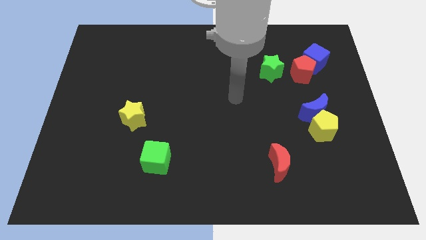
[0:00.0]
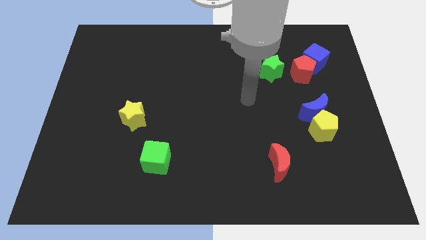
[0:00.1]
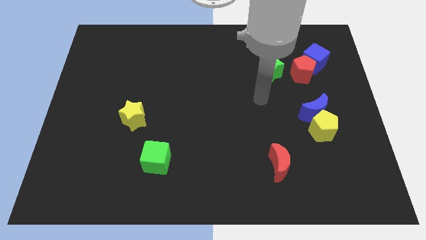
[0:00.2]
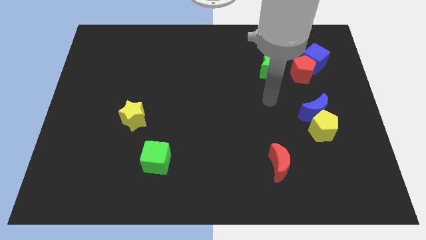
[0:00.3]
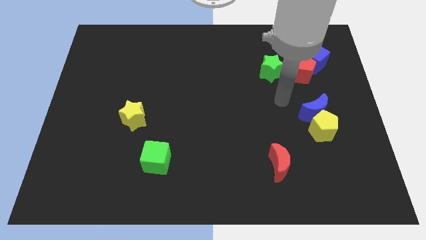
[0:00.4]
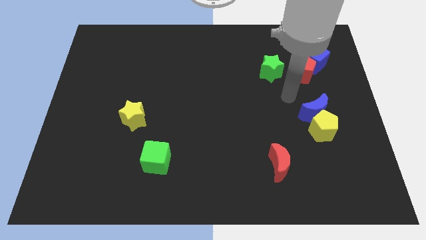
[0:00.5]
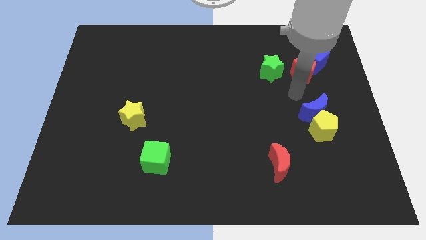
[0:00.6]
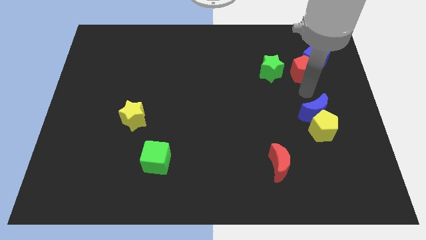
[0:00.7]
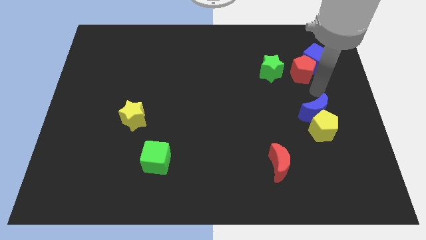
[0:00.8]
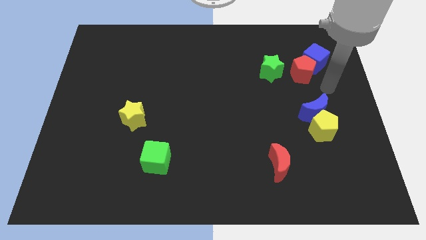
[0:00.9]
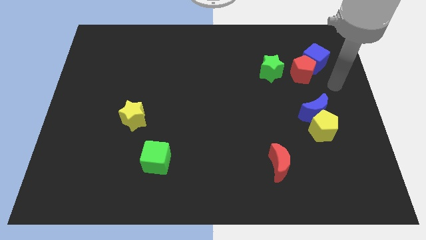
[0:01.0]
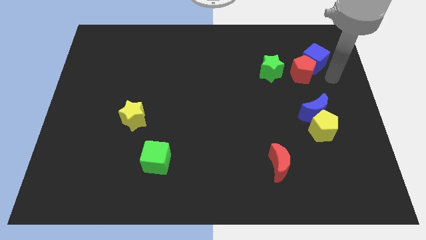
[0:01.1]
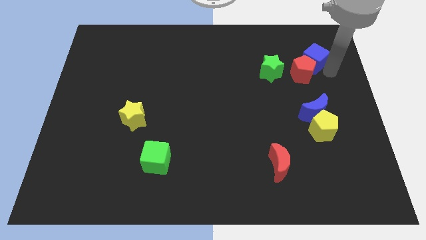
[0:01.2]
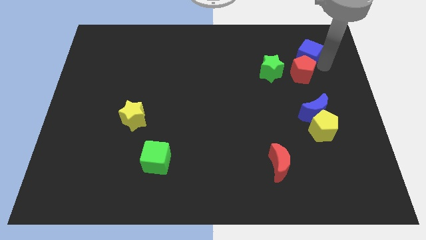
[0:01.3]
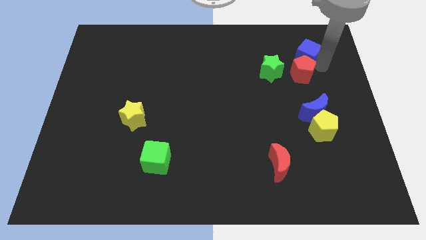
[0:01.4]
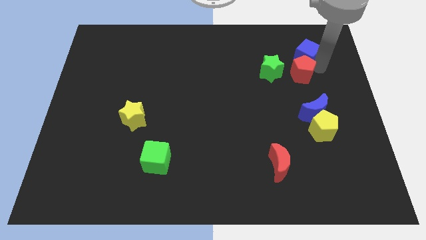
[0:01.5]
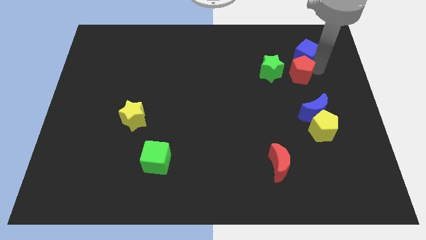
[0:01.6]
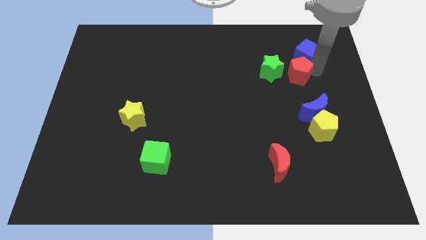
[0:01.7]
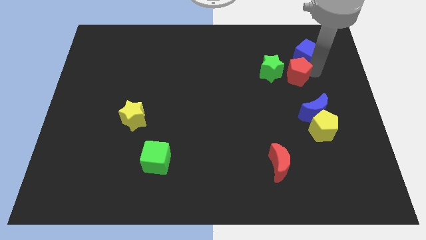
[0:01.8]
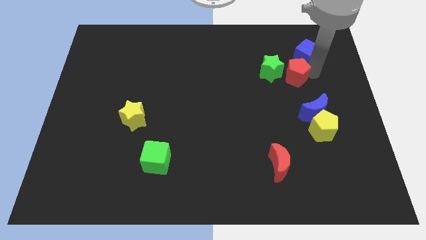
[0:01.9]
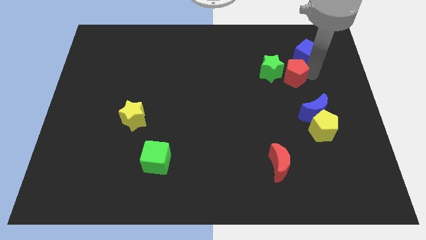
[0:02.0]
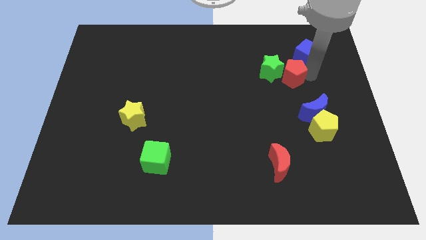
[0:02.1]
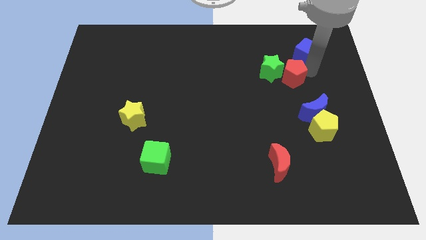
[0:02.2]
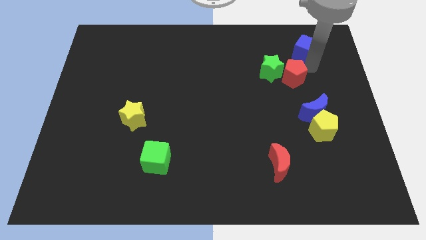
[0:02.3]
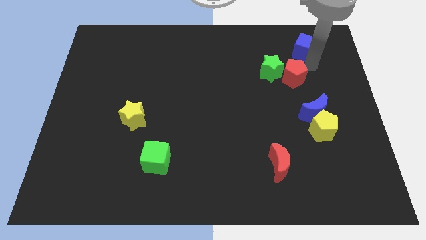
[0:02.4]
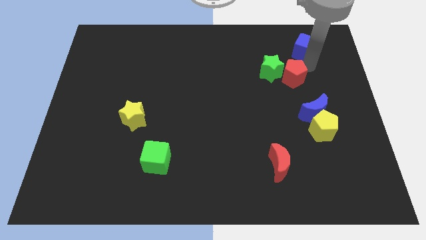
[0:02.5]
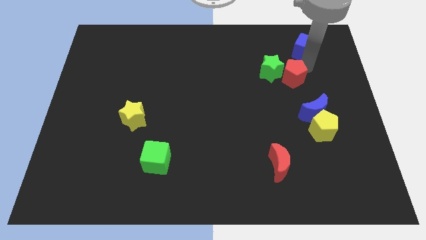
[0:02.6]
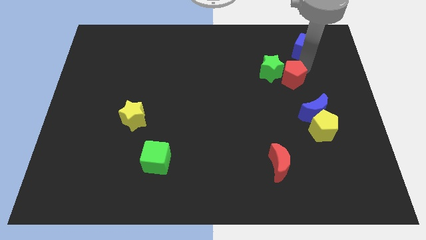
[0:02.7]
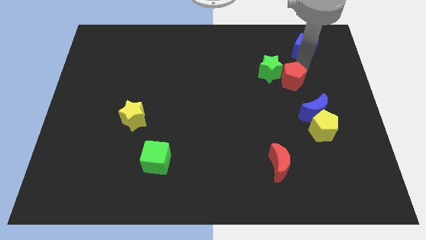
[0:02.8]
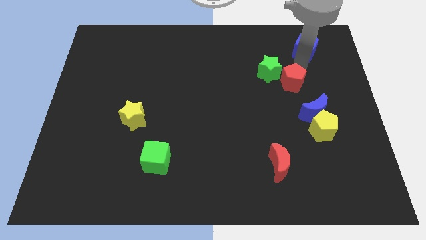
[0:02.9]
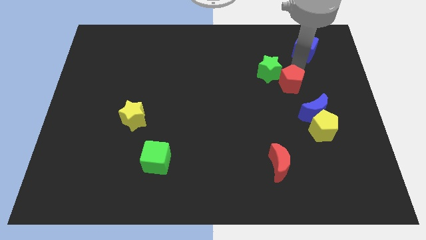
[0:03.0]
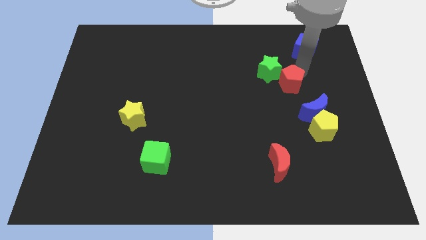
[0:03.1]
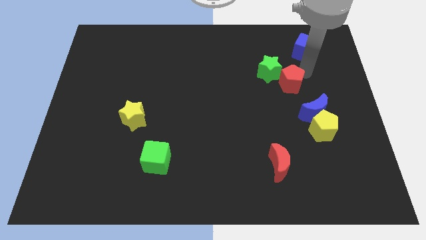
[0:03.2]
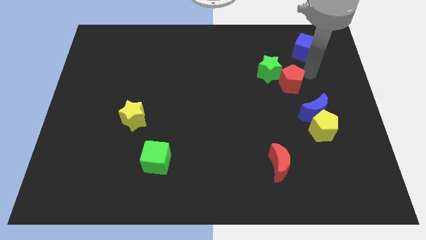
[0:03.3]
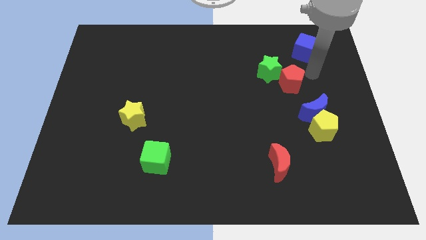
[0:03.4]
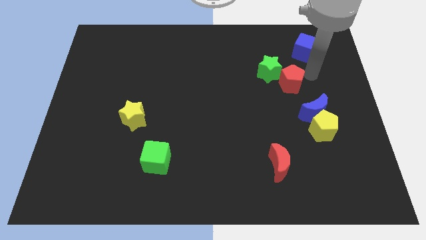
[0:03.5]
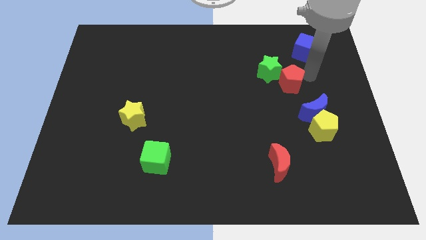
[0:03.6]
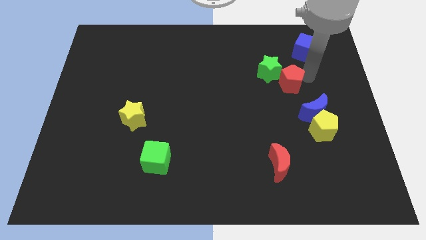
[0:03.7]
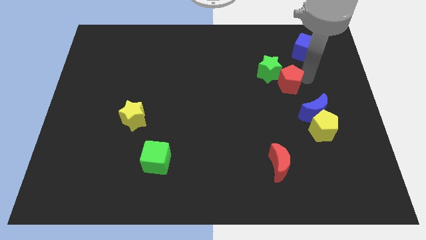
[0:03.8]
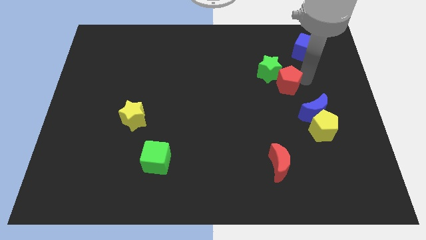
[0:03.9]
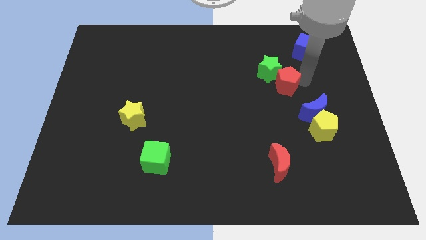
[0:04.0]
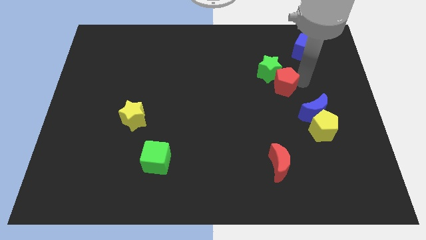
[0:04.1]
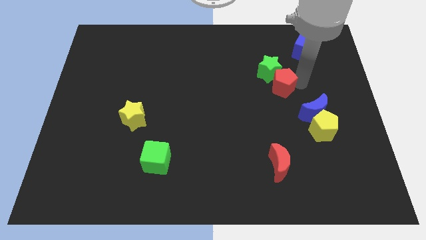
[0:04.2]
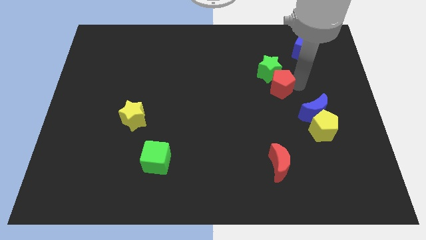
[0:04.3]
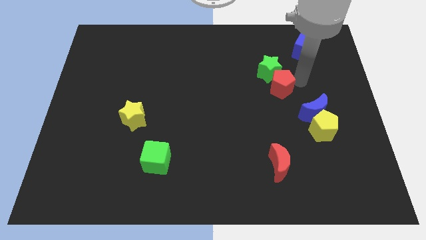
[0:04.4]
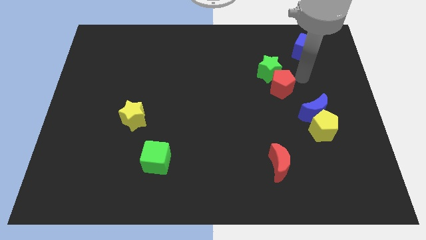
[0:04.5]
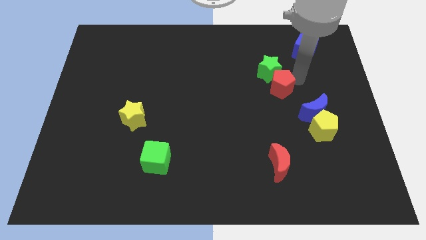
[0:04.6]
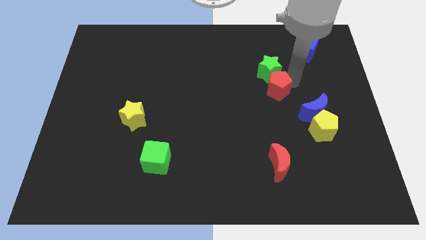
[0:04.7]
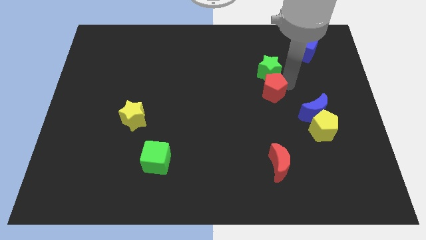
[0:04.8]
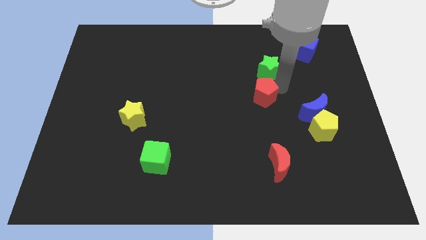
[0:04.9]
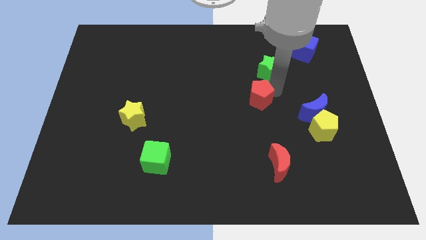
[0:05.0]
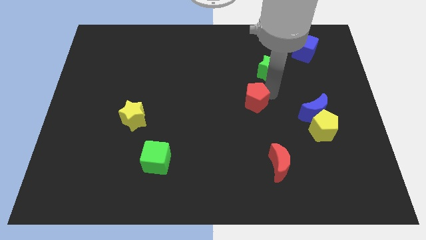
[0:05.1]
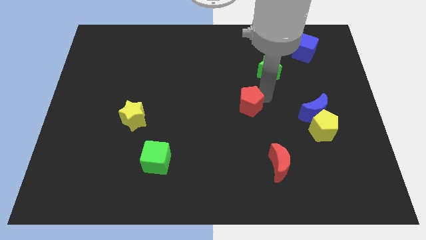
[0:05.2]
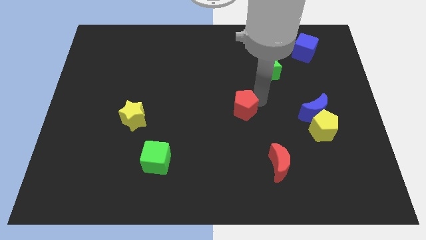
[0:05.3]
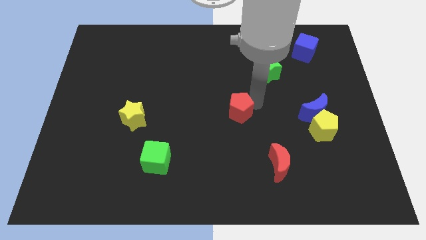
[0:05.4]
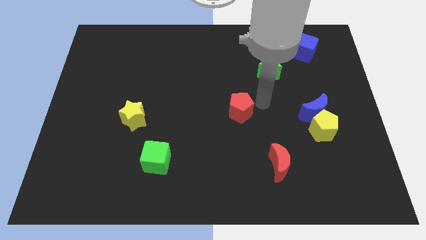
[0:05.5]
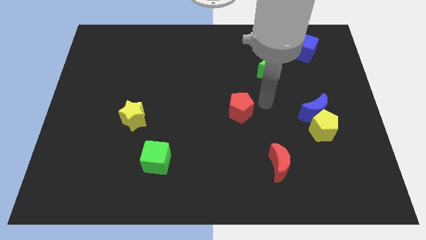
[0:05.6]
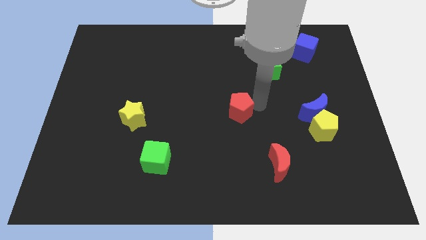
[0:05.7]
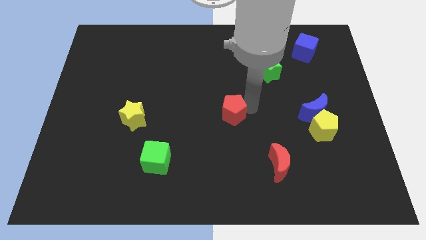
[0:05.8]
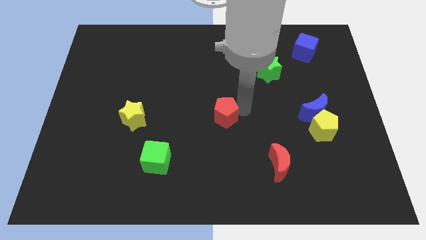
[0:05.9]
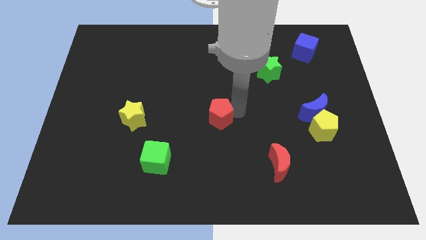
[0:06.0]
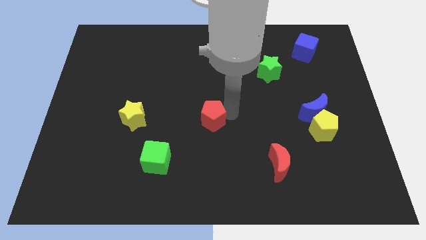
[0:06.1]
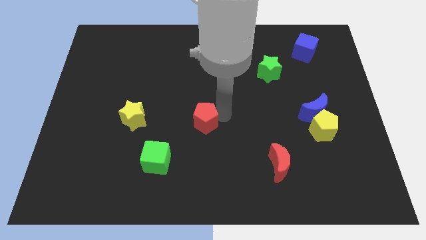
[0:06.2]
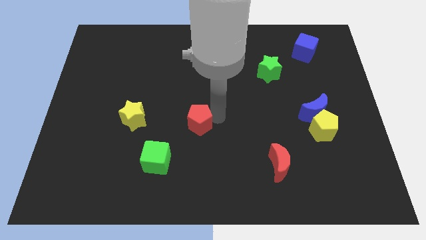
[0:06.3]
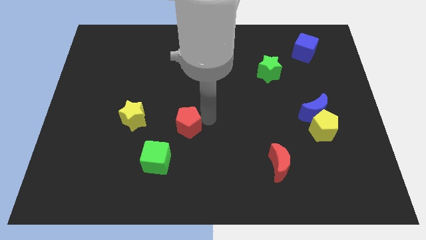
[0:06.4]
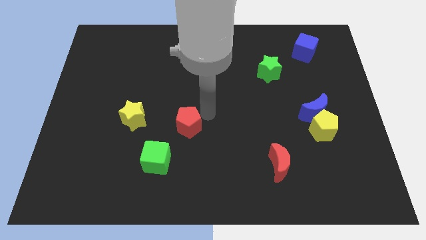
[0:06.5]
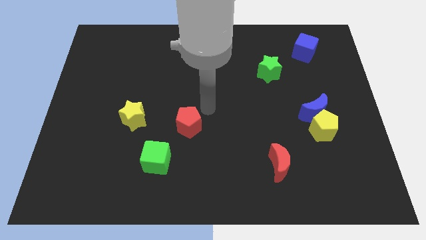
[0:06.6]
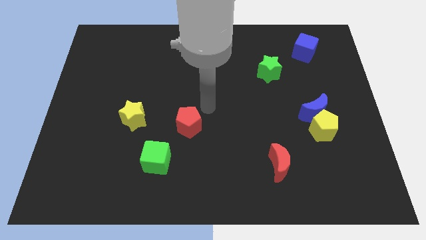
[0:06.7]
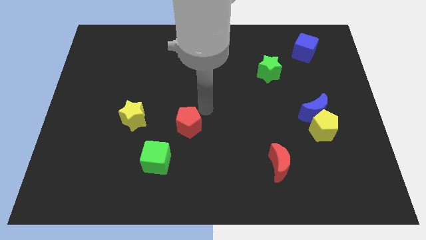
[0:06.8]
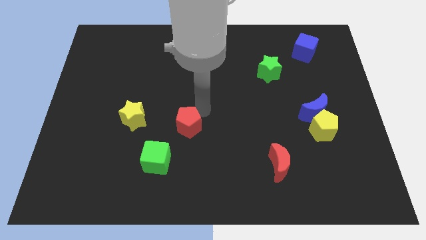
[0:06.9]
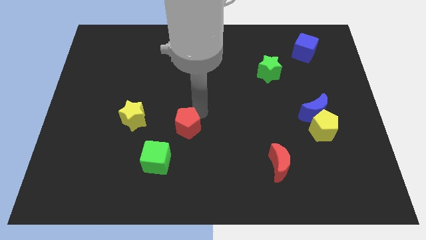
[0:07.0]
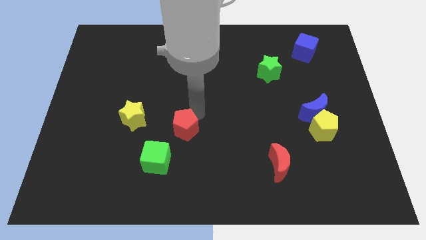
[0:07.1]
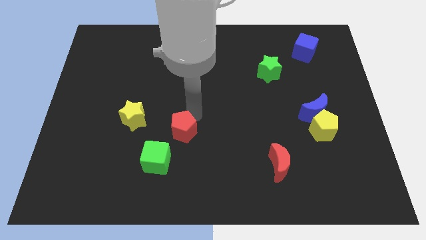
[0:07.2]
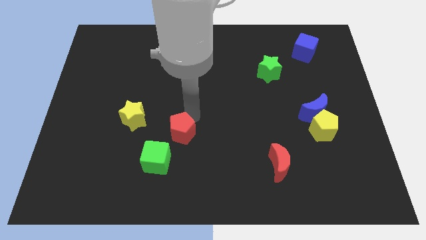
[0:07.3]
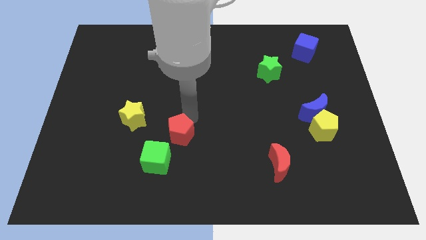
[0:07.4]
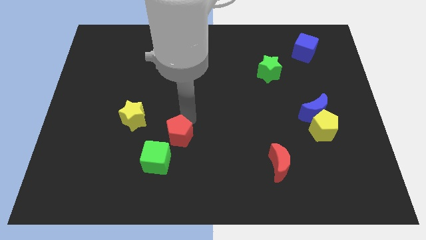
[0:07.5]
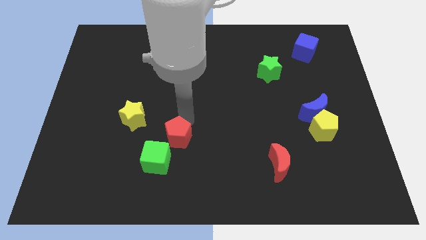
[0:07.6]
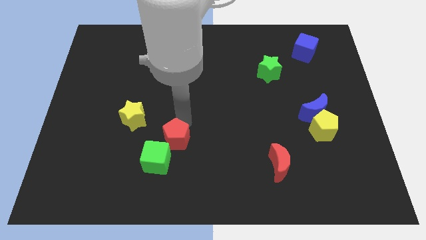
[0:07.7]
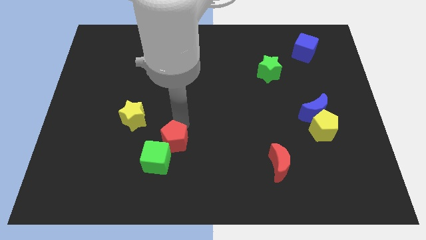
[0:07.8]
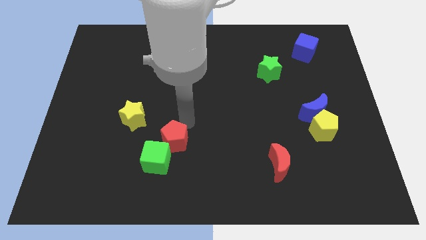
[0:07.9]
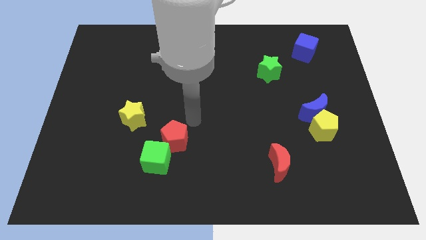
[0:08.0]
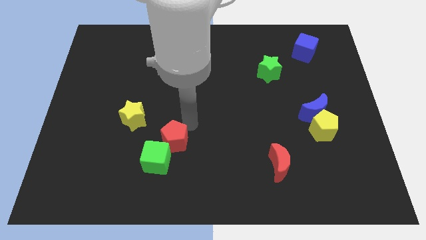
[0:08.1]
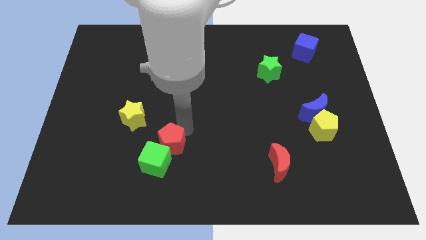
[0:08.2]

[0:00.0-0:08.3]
put the red pentagon next to the green cube
